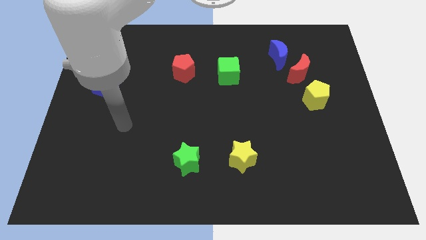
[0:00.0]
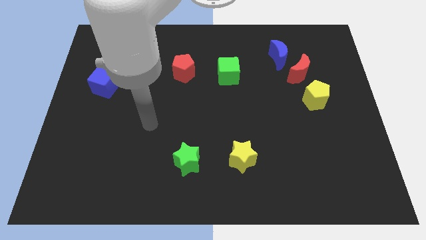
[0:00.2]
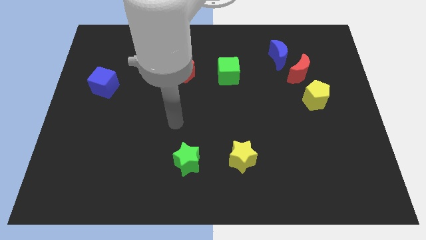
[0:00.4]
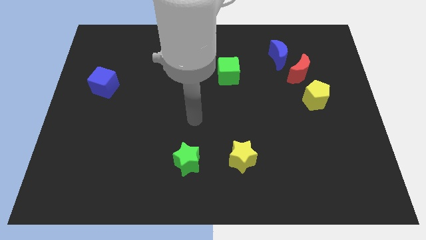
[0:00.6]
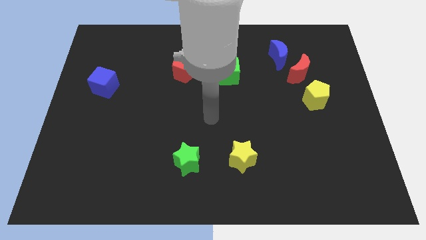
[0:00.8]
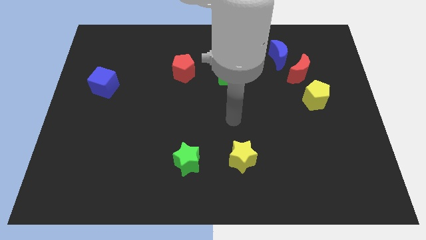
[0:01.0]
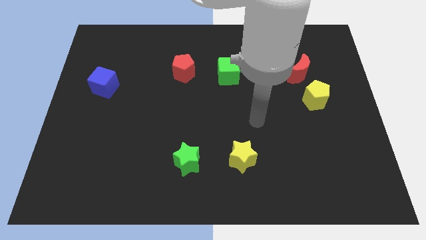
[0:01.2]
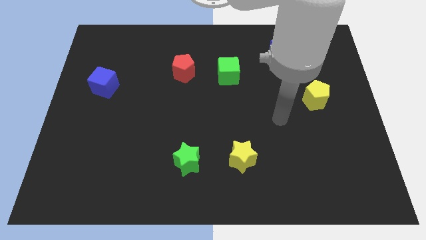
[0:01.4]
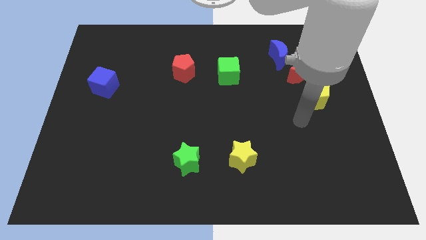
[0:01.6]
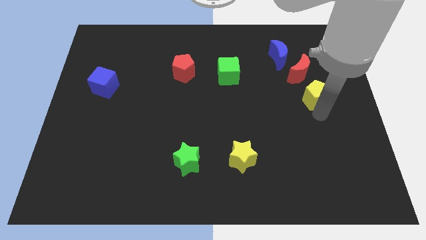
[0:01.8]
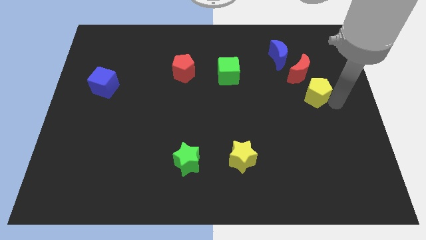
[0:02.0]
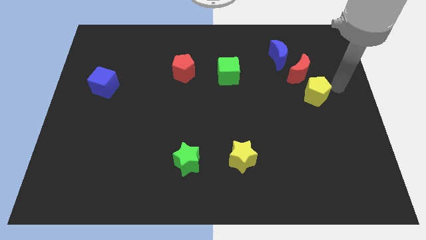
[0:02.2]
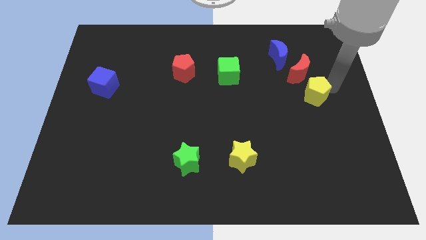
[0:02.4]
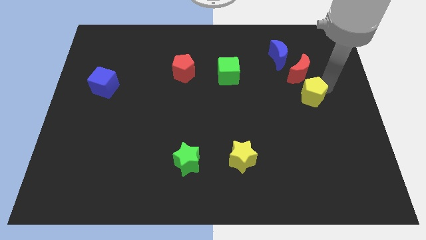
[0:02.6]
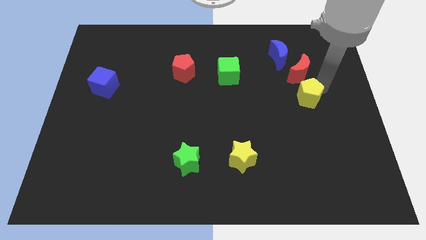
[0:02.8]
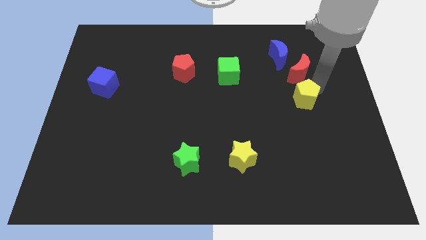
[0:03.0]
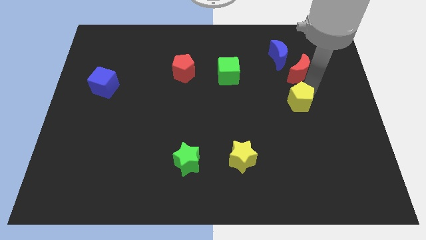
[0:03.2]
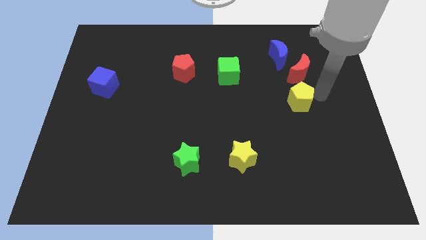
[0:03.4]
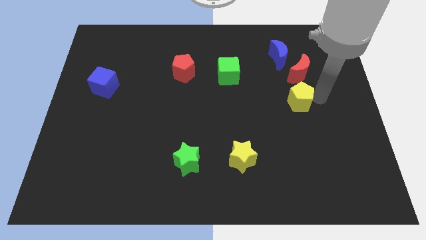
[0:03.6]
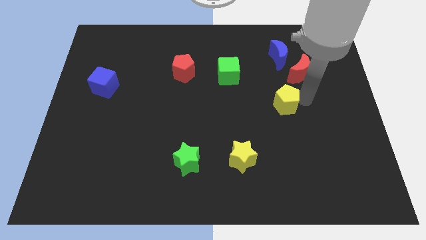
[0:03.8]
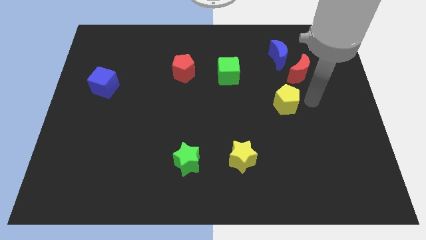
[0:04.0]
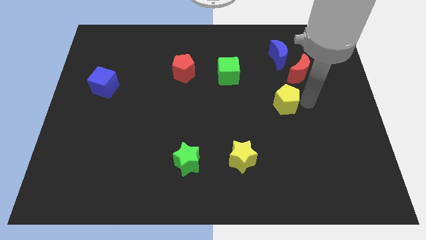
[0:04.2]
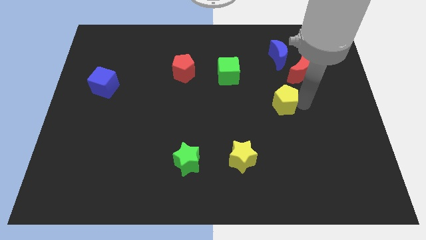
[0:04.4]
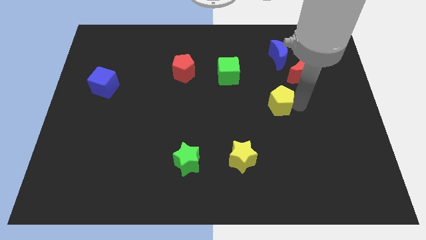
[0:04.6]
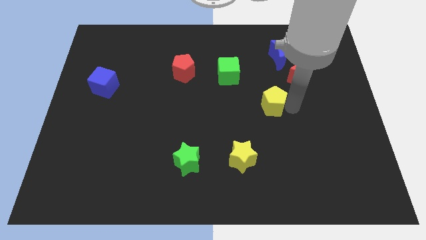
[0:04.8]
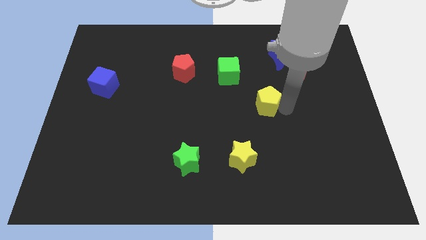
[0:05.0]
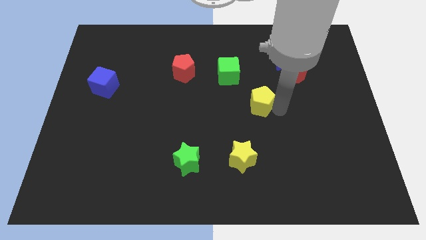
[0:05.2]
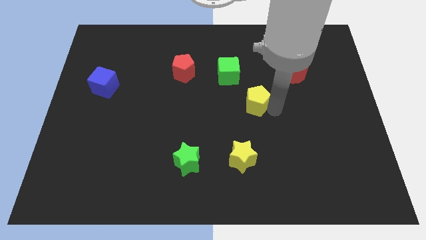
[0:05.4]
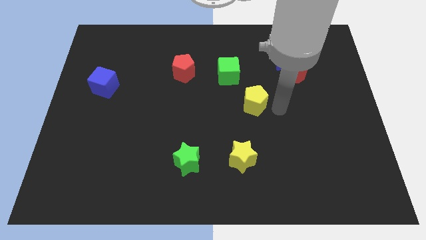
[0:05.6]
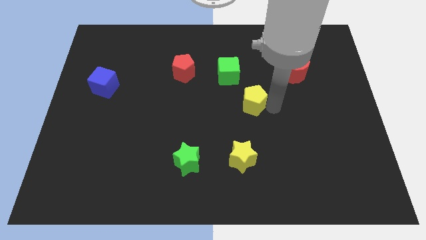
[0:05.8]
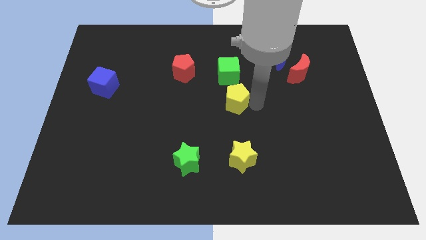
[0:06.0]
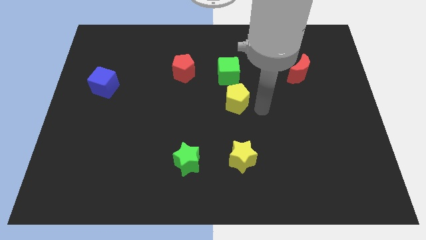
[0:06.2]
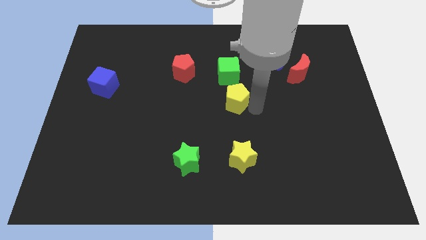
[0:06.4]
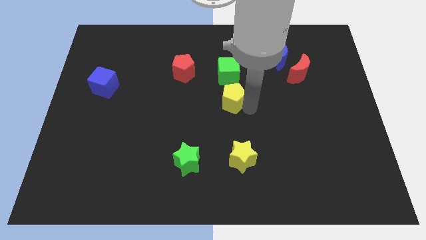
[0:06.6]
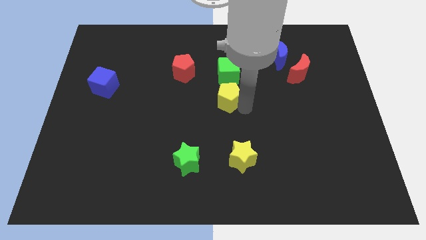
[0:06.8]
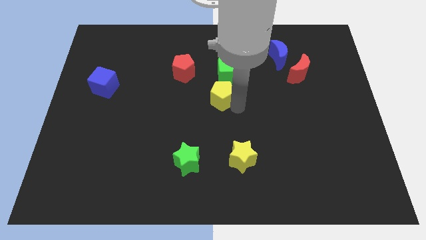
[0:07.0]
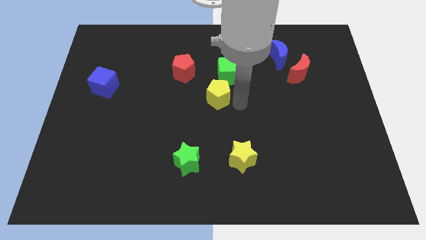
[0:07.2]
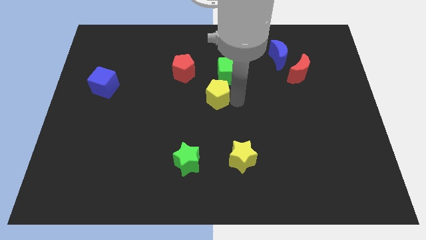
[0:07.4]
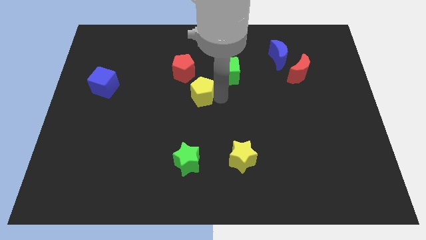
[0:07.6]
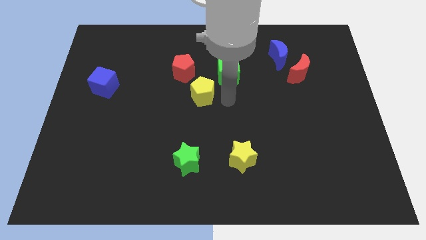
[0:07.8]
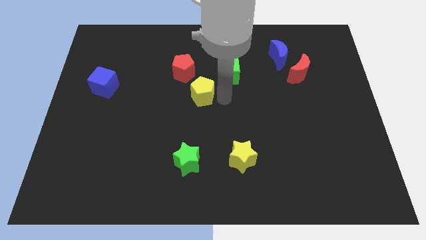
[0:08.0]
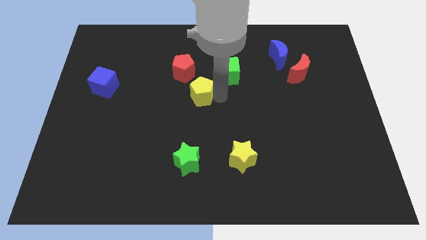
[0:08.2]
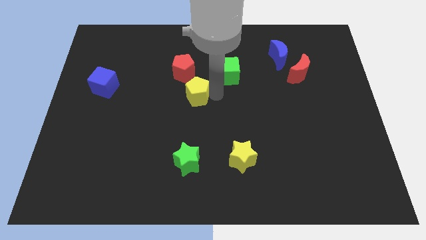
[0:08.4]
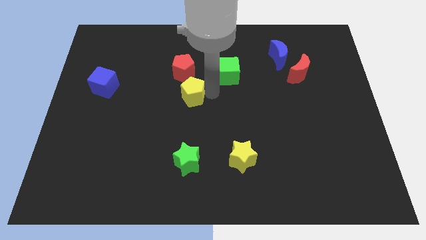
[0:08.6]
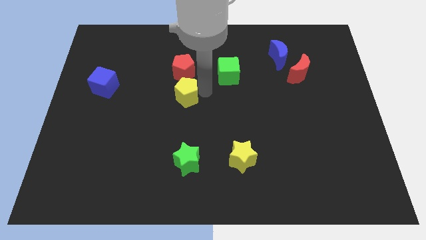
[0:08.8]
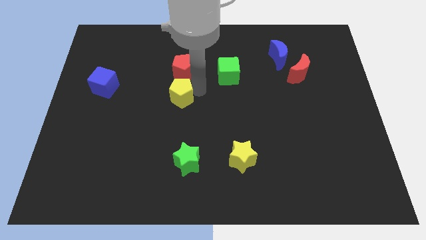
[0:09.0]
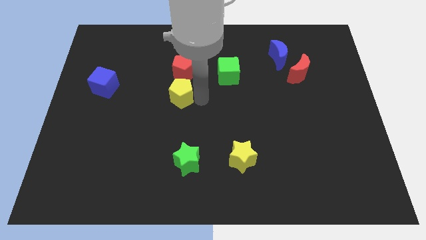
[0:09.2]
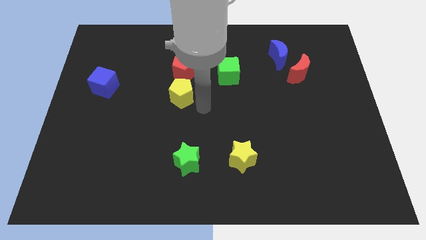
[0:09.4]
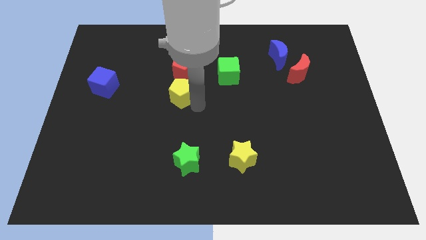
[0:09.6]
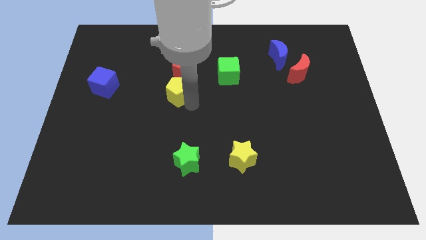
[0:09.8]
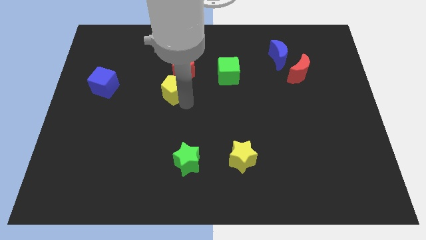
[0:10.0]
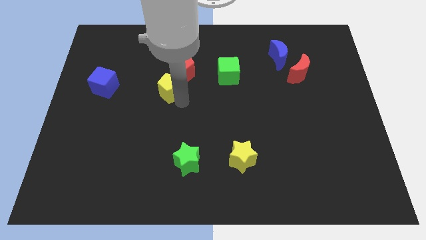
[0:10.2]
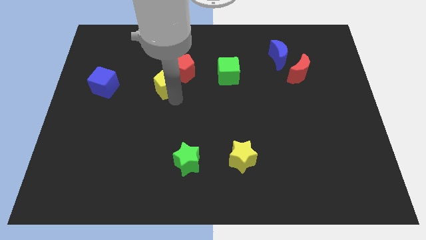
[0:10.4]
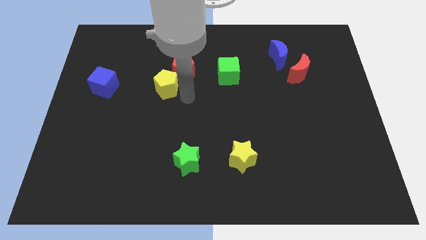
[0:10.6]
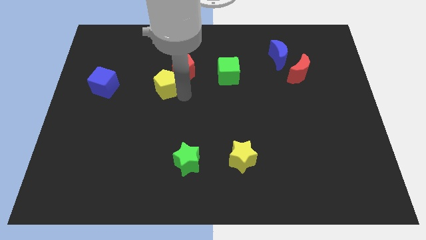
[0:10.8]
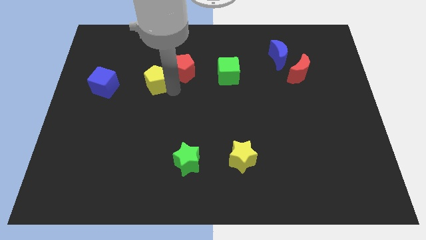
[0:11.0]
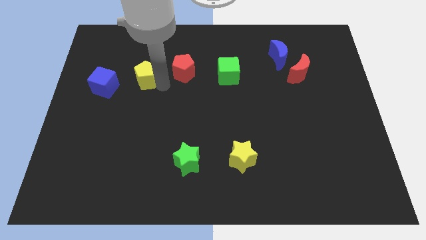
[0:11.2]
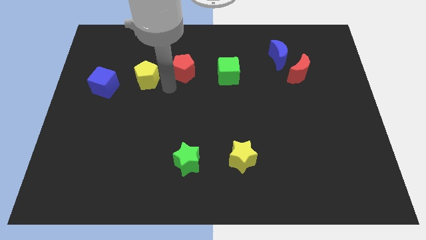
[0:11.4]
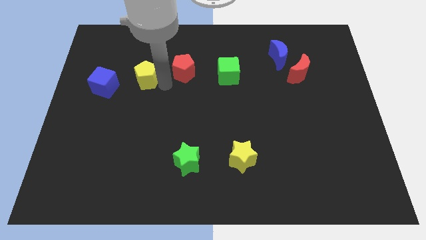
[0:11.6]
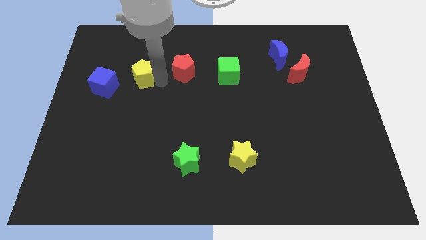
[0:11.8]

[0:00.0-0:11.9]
move the yellow pentagon to the top right of the blue cube

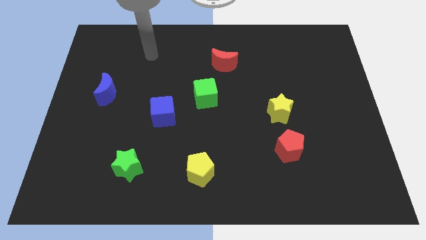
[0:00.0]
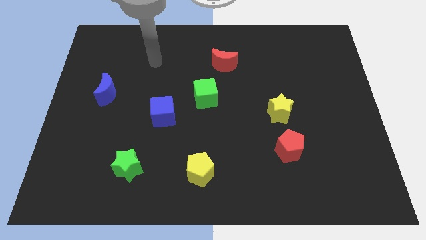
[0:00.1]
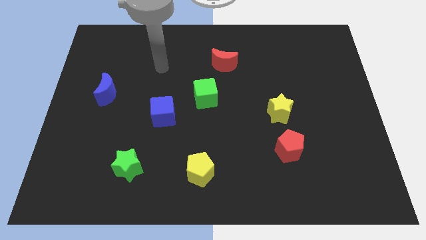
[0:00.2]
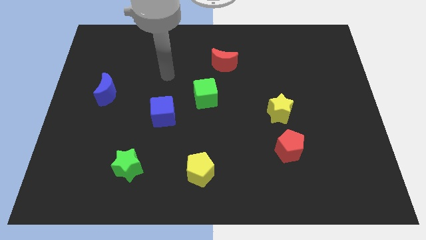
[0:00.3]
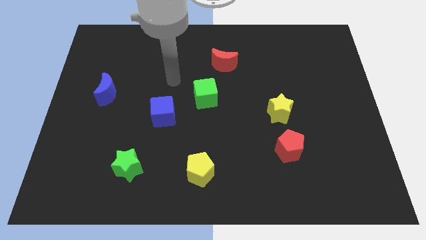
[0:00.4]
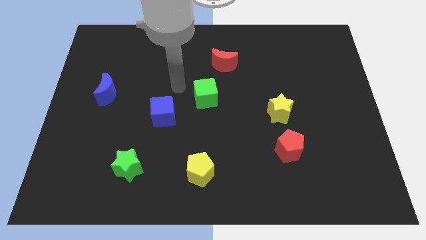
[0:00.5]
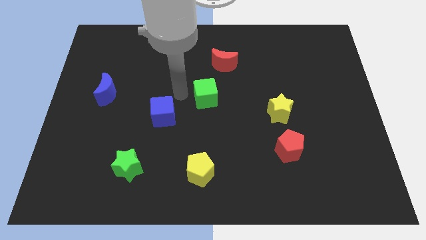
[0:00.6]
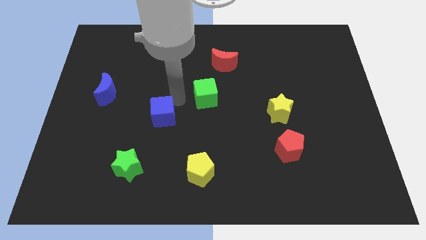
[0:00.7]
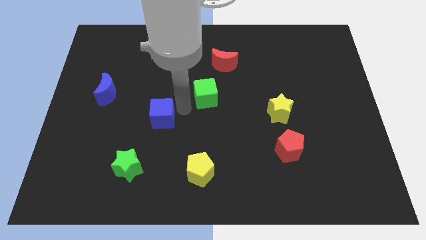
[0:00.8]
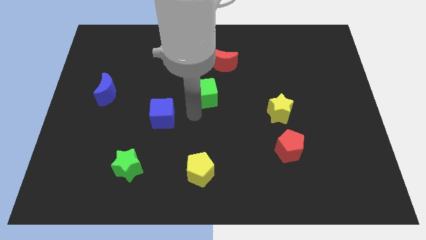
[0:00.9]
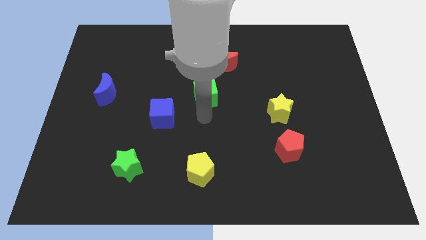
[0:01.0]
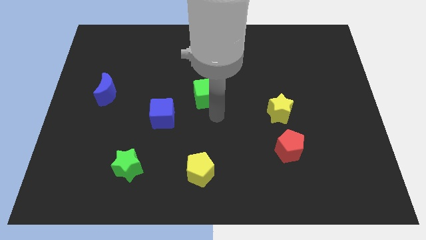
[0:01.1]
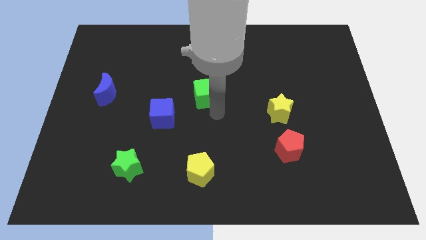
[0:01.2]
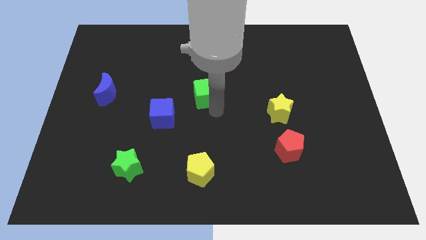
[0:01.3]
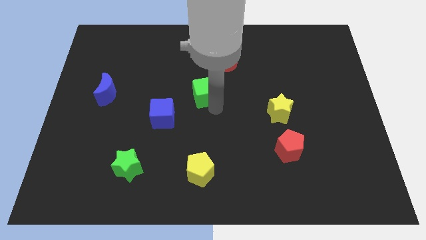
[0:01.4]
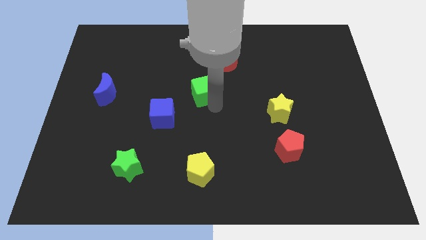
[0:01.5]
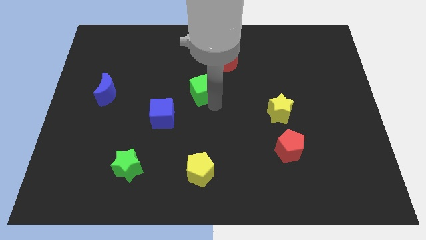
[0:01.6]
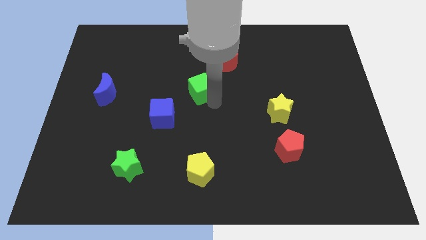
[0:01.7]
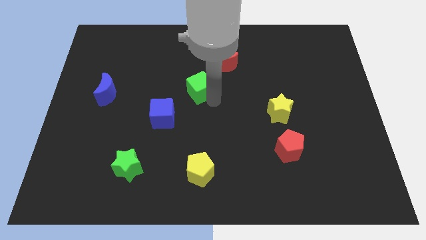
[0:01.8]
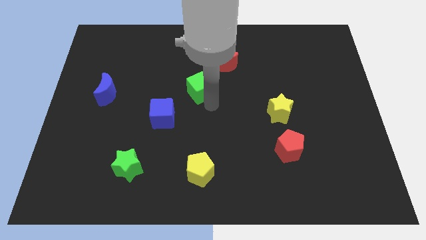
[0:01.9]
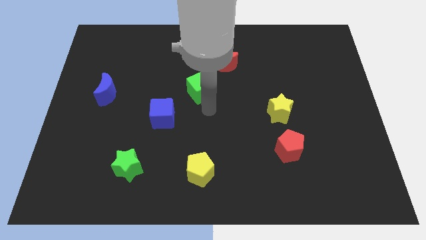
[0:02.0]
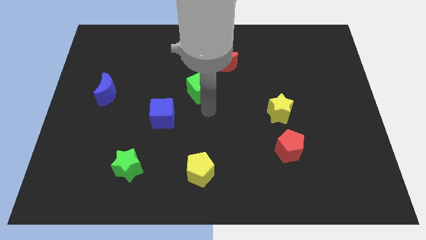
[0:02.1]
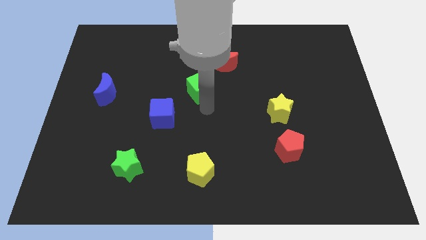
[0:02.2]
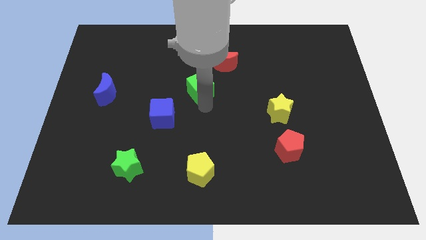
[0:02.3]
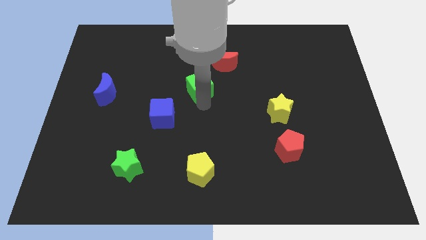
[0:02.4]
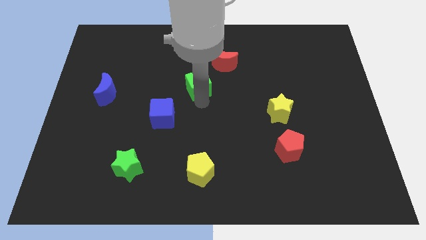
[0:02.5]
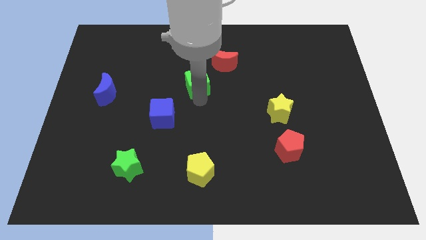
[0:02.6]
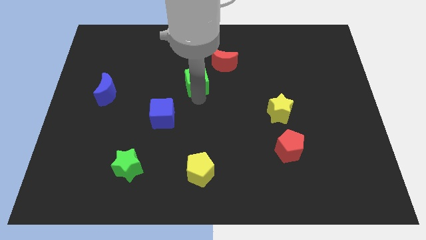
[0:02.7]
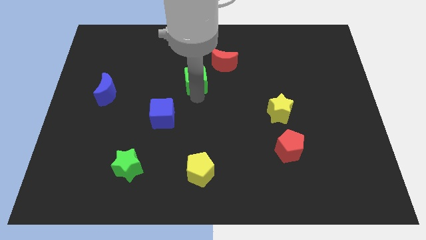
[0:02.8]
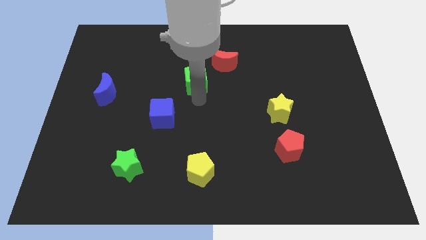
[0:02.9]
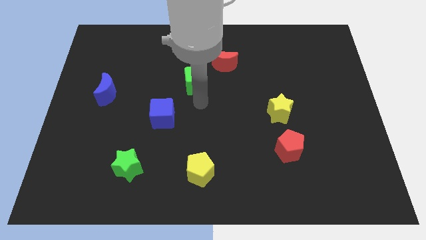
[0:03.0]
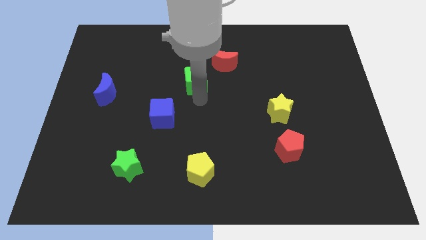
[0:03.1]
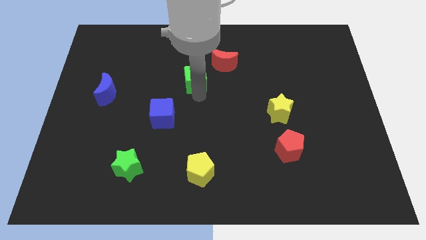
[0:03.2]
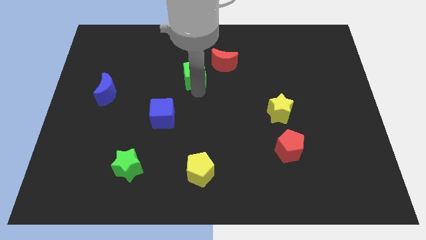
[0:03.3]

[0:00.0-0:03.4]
slide the green cube left of the red moon
